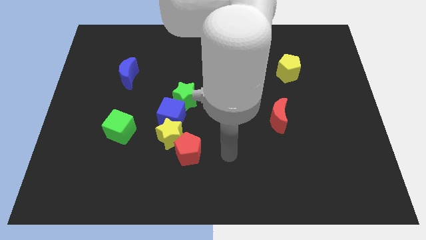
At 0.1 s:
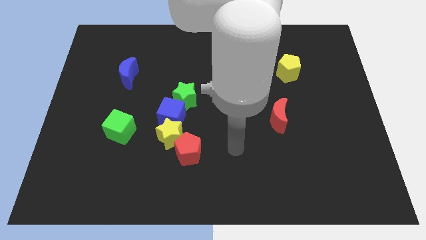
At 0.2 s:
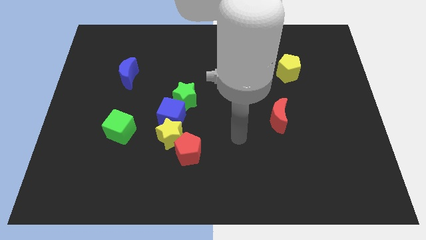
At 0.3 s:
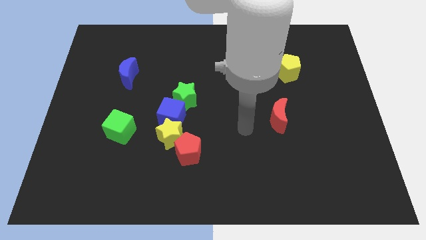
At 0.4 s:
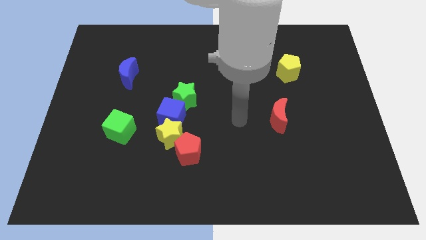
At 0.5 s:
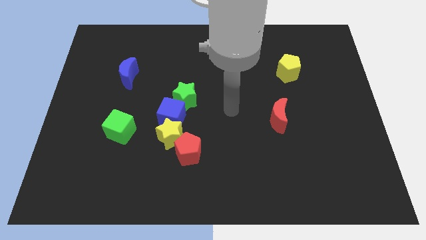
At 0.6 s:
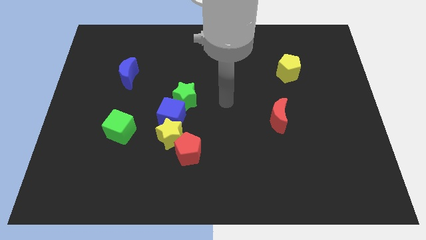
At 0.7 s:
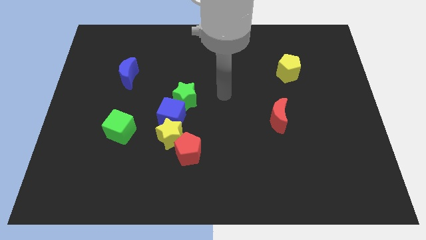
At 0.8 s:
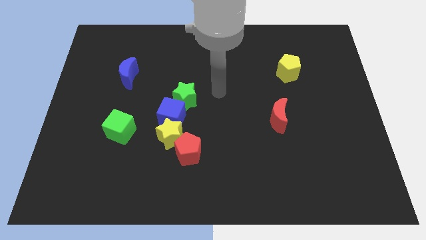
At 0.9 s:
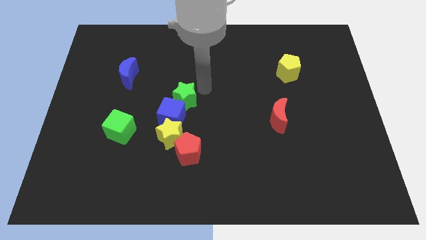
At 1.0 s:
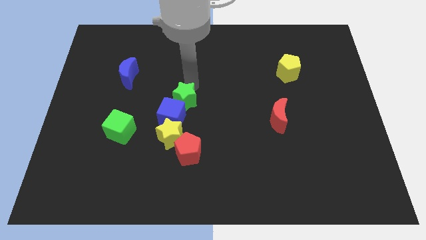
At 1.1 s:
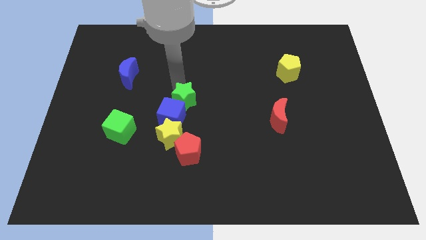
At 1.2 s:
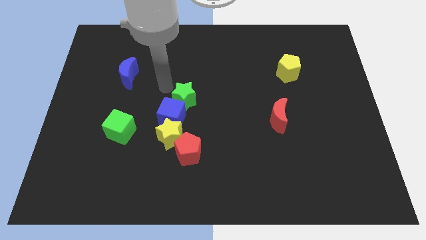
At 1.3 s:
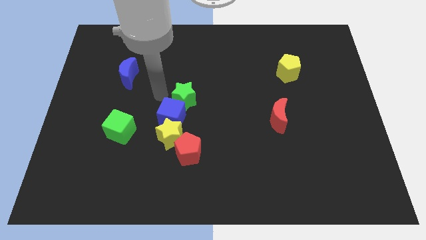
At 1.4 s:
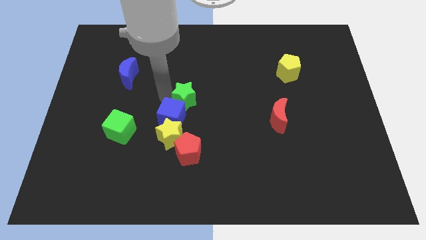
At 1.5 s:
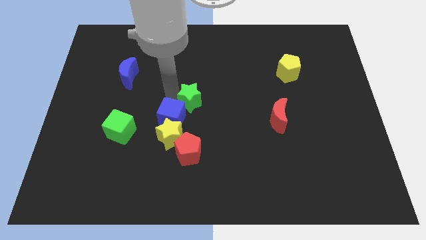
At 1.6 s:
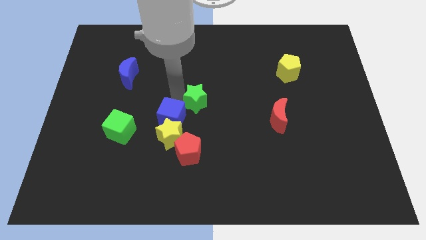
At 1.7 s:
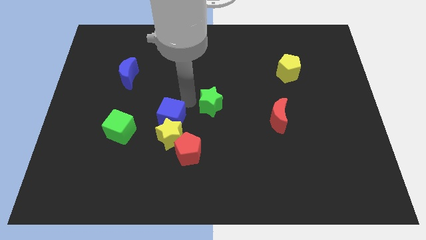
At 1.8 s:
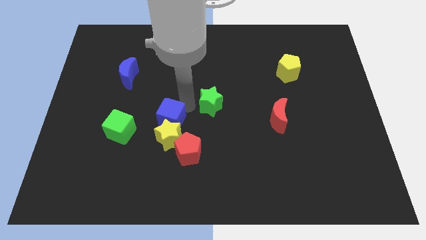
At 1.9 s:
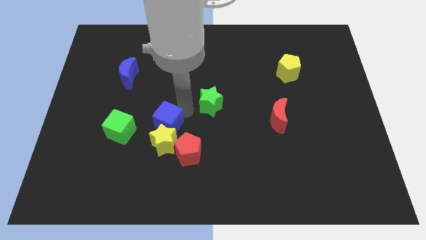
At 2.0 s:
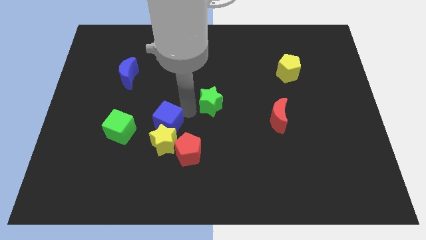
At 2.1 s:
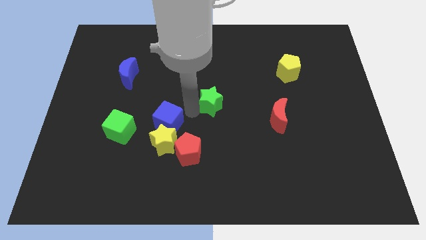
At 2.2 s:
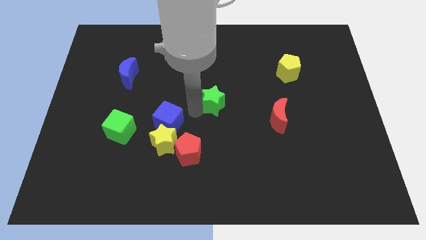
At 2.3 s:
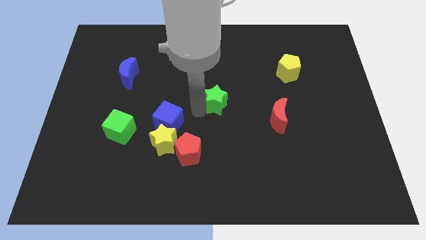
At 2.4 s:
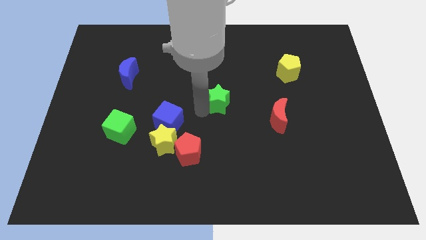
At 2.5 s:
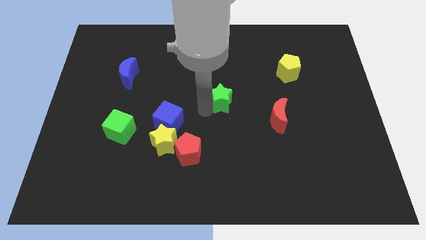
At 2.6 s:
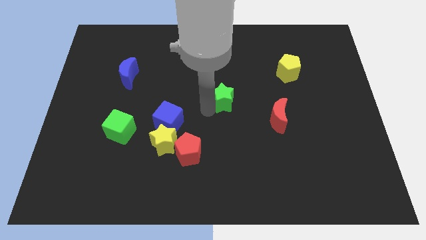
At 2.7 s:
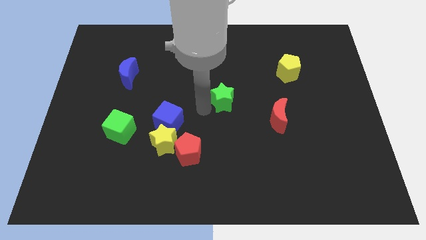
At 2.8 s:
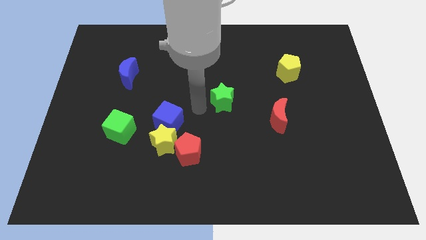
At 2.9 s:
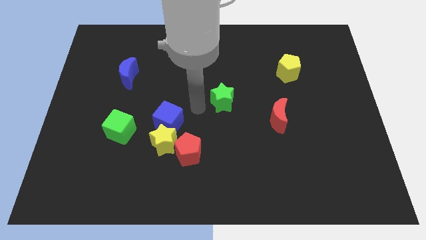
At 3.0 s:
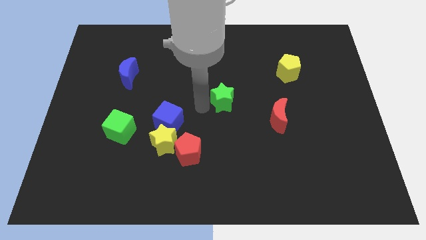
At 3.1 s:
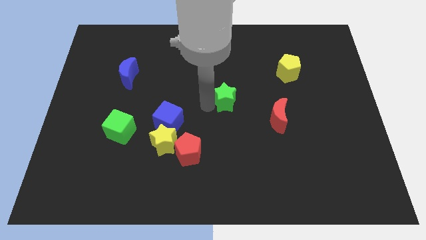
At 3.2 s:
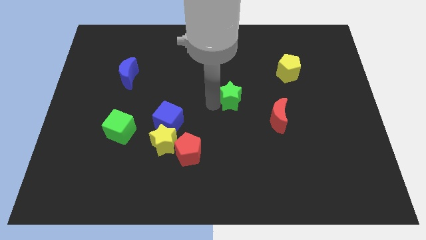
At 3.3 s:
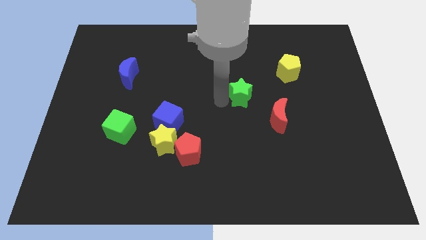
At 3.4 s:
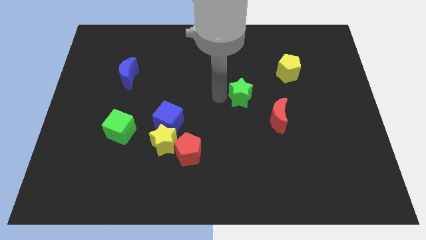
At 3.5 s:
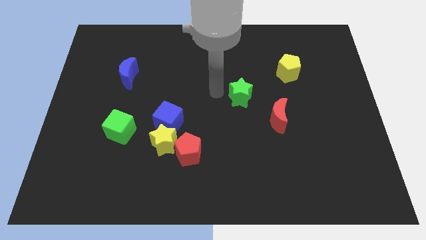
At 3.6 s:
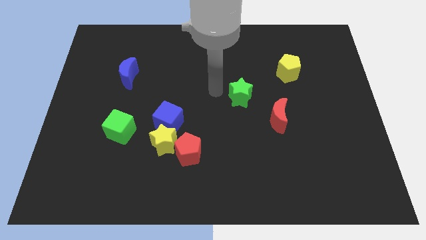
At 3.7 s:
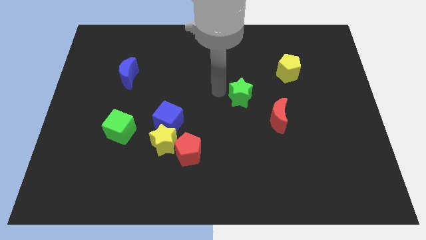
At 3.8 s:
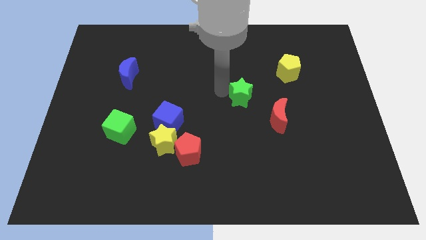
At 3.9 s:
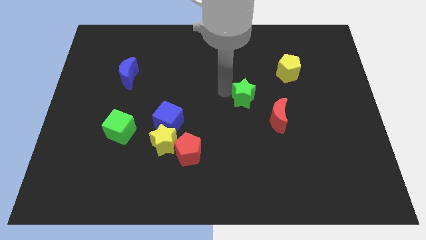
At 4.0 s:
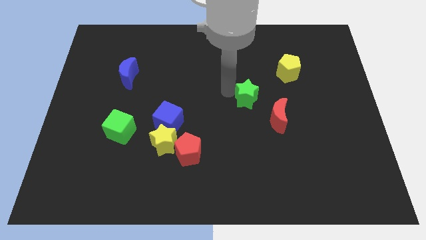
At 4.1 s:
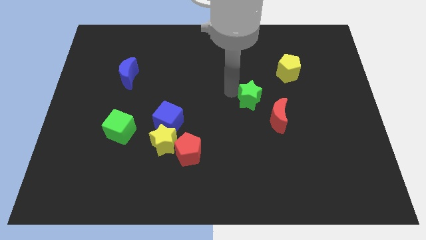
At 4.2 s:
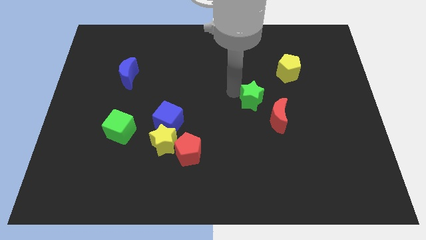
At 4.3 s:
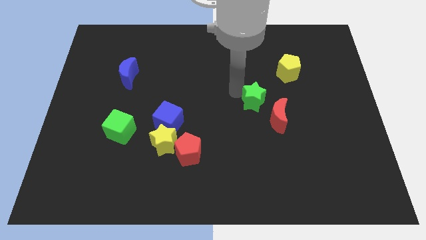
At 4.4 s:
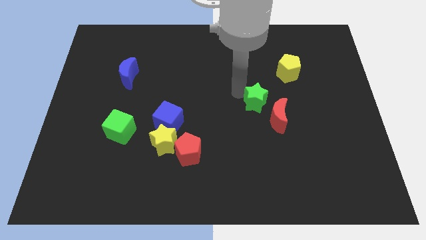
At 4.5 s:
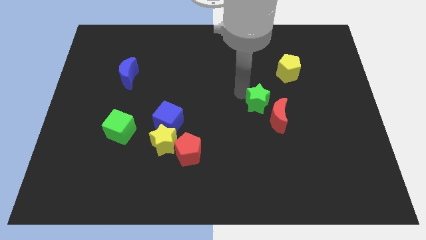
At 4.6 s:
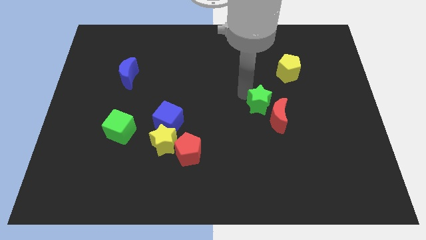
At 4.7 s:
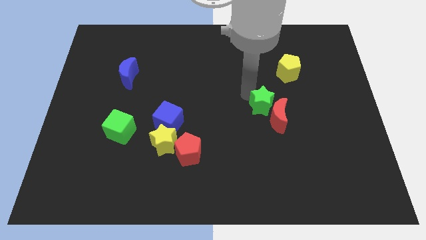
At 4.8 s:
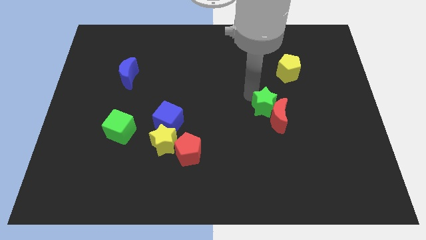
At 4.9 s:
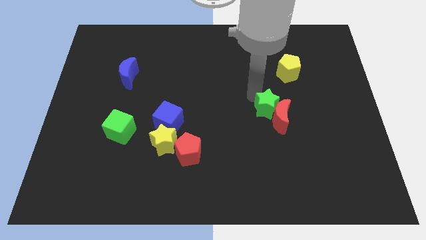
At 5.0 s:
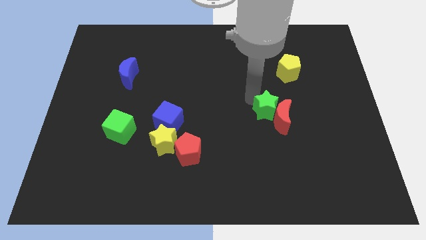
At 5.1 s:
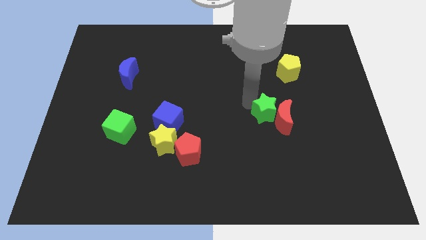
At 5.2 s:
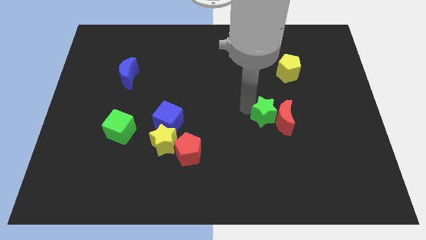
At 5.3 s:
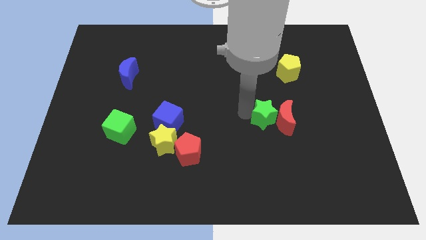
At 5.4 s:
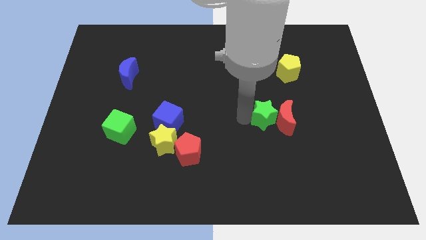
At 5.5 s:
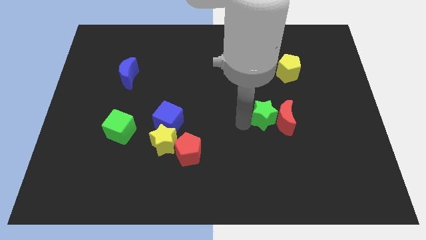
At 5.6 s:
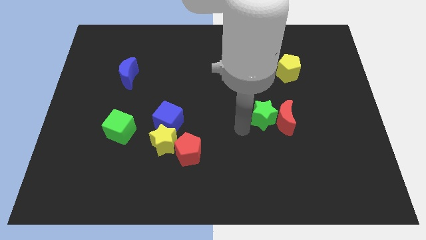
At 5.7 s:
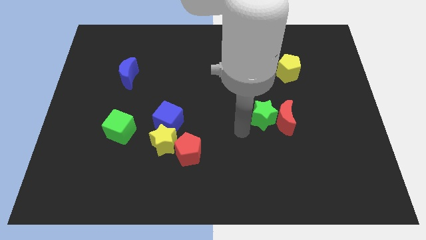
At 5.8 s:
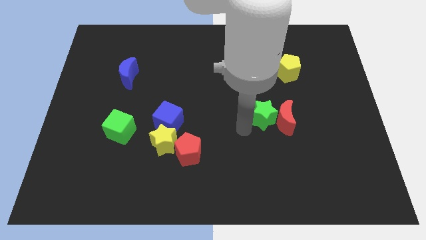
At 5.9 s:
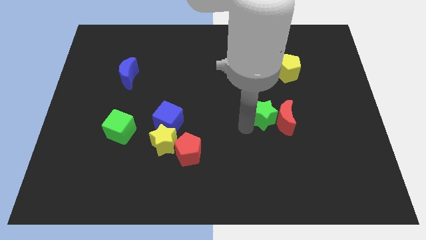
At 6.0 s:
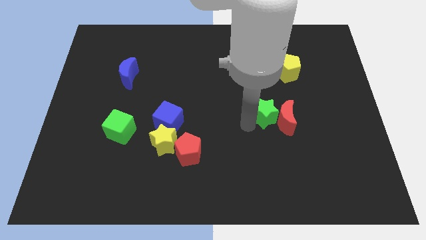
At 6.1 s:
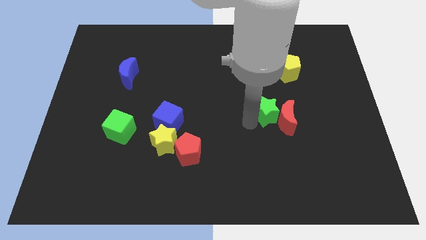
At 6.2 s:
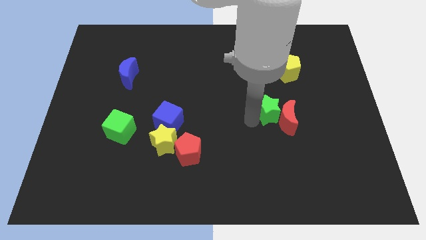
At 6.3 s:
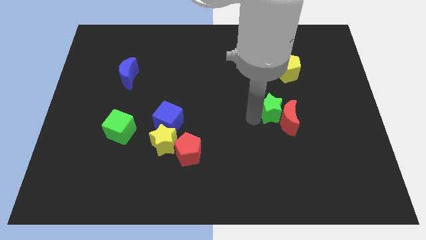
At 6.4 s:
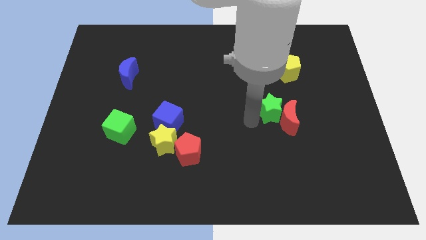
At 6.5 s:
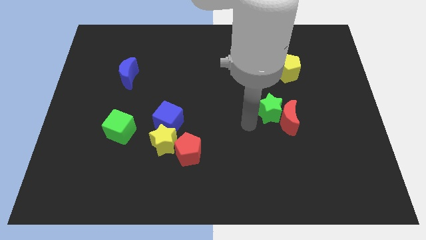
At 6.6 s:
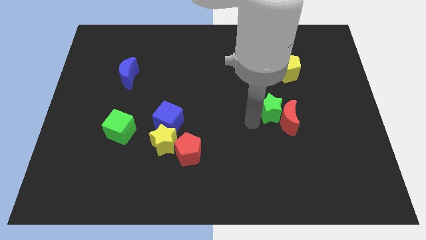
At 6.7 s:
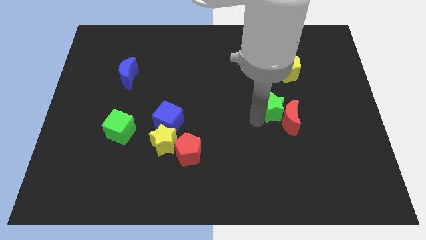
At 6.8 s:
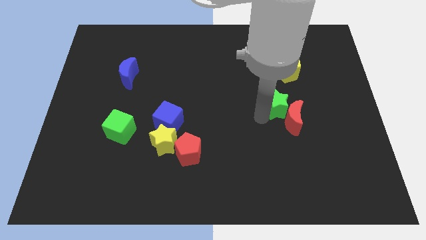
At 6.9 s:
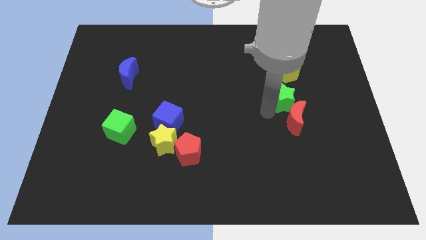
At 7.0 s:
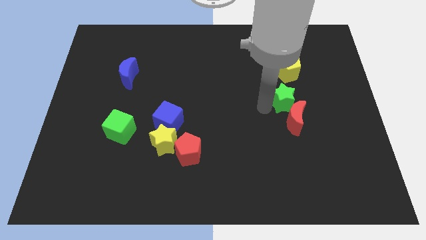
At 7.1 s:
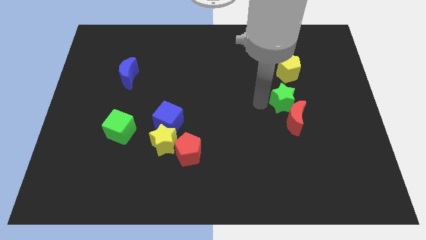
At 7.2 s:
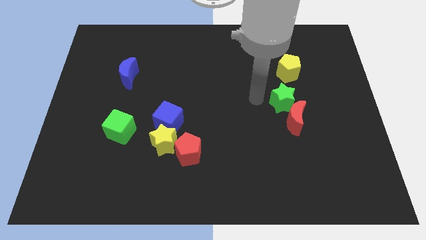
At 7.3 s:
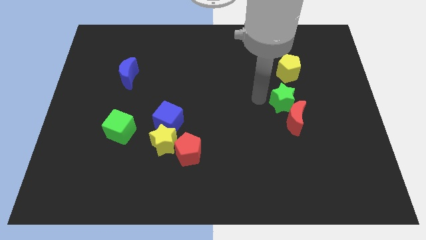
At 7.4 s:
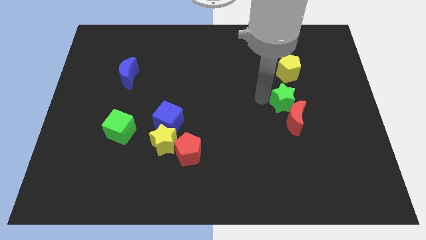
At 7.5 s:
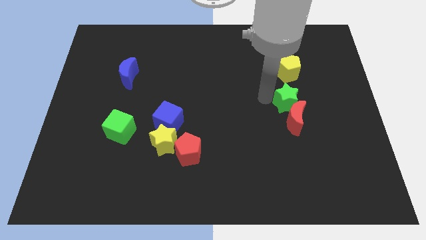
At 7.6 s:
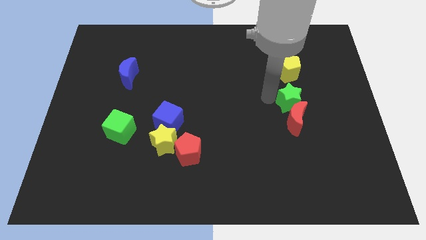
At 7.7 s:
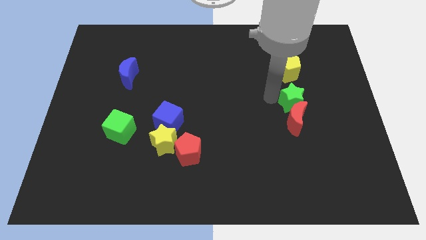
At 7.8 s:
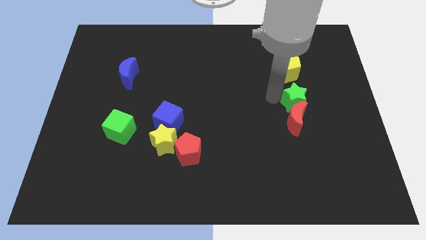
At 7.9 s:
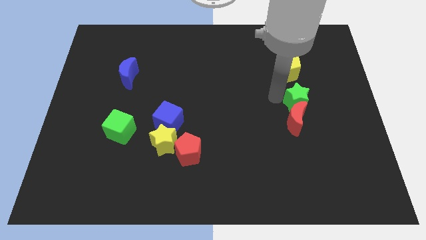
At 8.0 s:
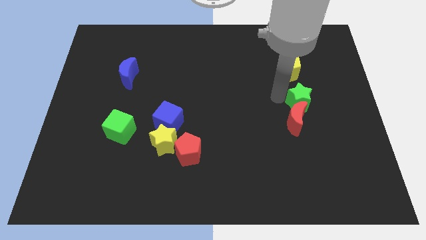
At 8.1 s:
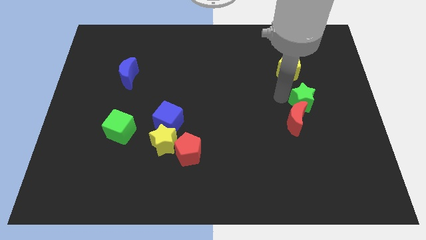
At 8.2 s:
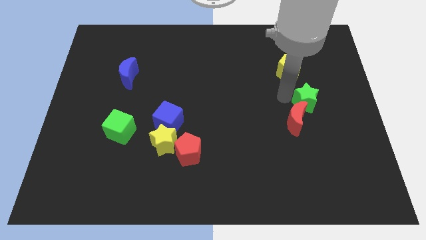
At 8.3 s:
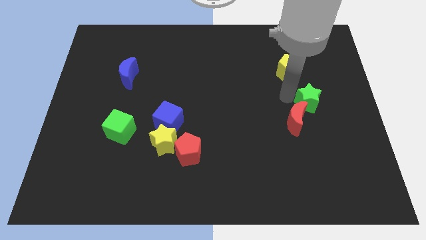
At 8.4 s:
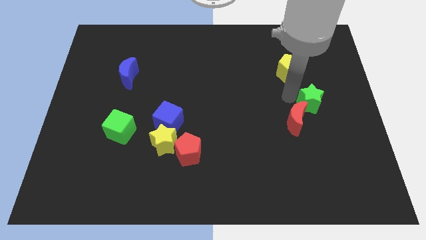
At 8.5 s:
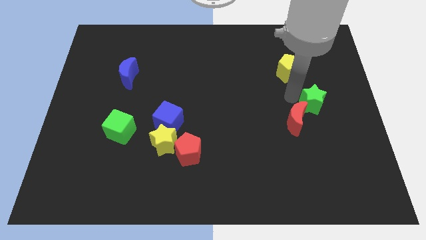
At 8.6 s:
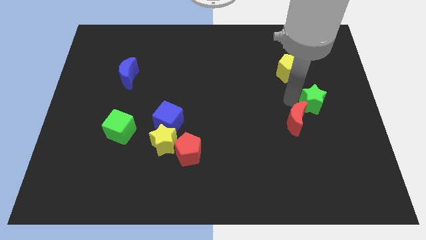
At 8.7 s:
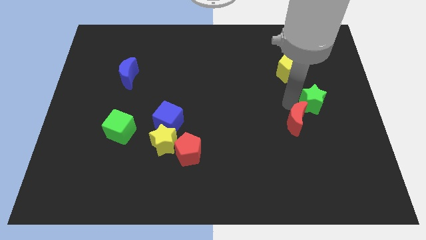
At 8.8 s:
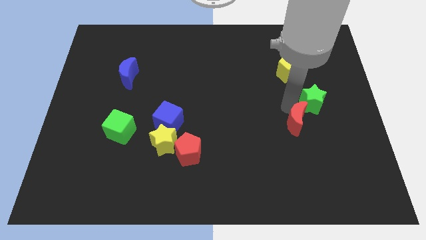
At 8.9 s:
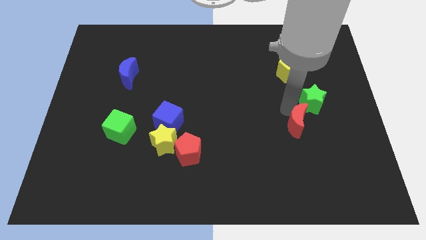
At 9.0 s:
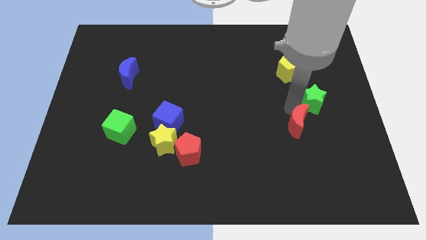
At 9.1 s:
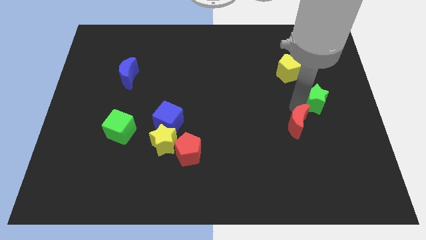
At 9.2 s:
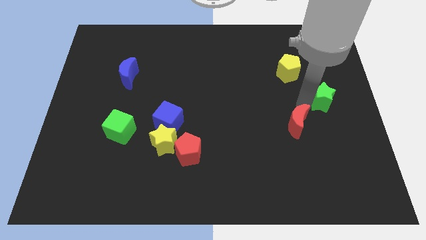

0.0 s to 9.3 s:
put the green star to the right side
